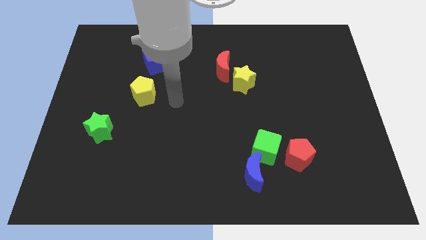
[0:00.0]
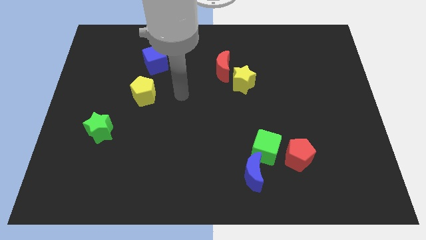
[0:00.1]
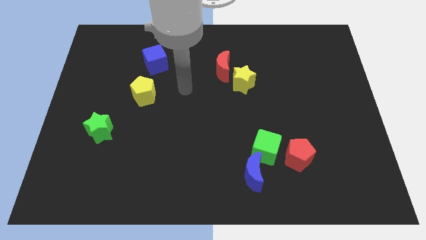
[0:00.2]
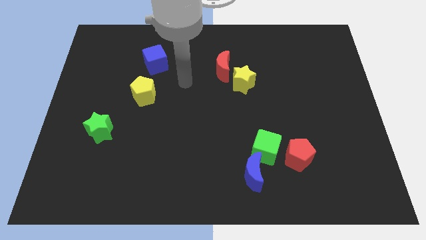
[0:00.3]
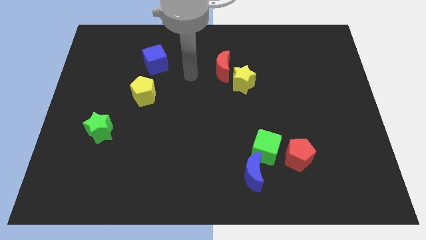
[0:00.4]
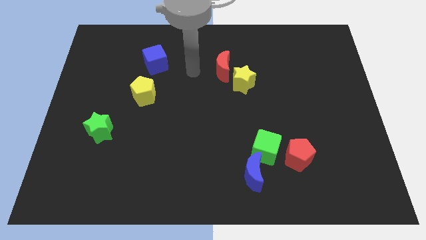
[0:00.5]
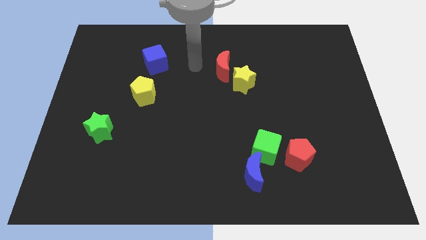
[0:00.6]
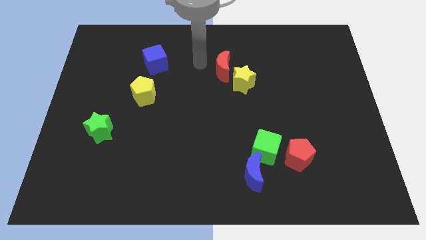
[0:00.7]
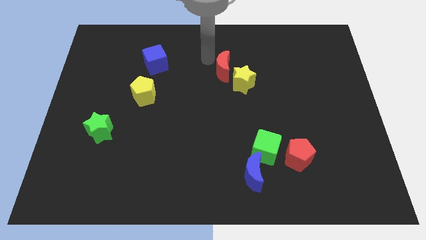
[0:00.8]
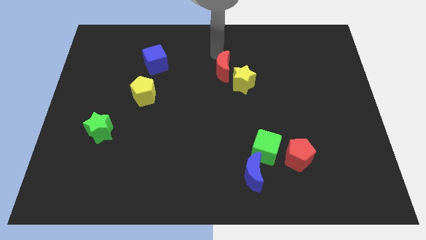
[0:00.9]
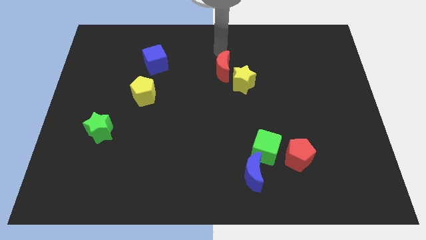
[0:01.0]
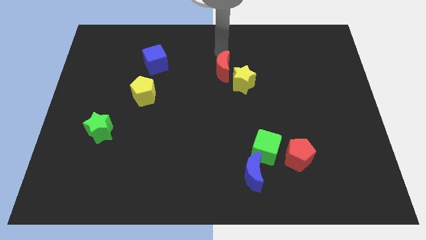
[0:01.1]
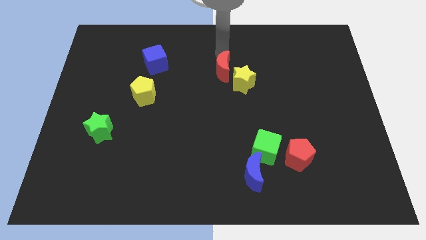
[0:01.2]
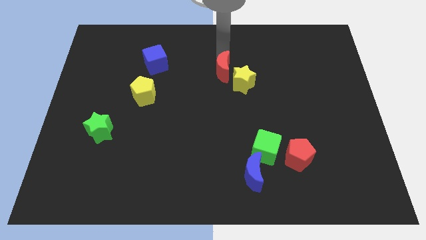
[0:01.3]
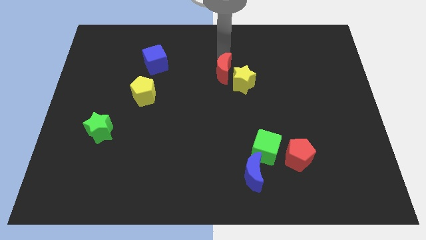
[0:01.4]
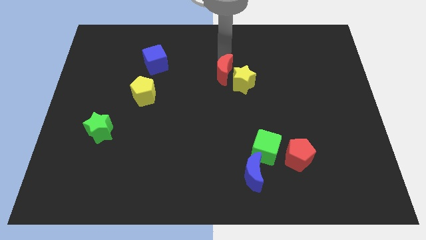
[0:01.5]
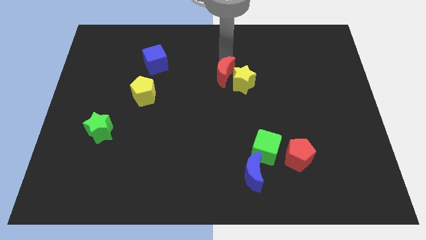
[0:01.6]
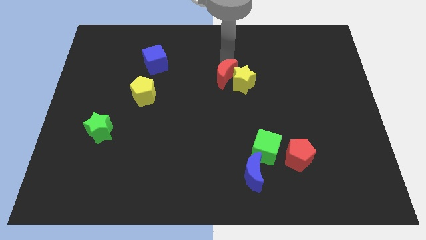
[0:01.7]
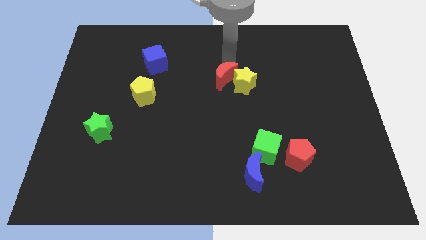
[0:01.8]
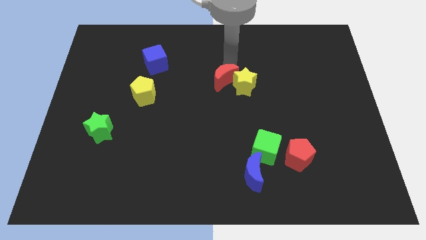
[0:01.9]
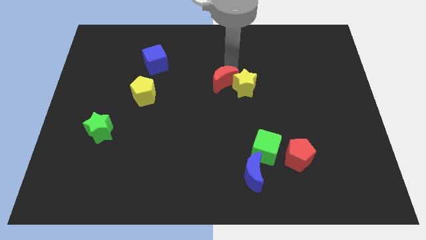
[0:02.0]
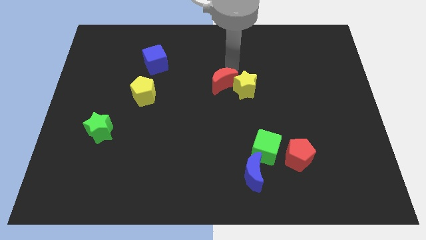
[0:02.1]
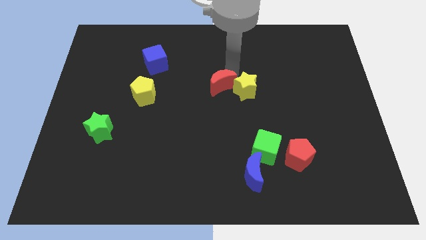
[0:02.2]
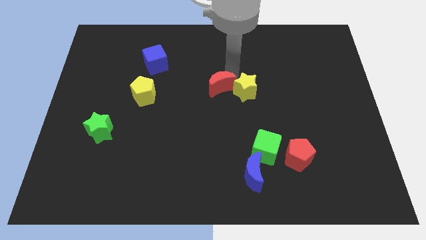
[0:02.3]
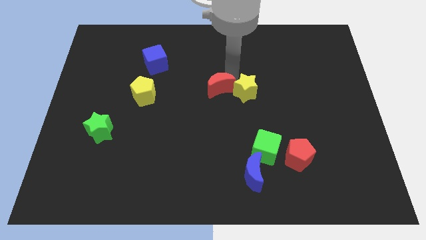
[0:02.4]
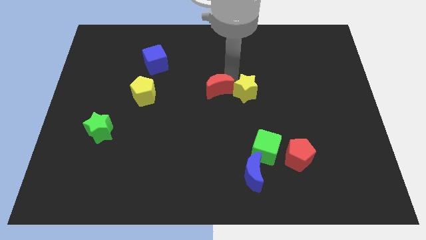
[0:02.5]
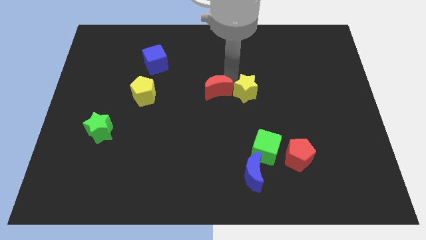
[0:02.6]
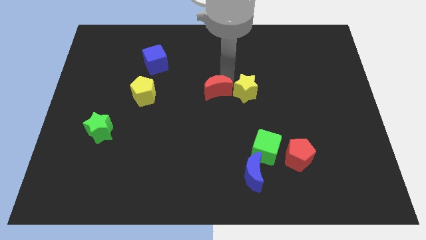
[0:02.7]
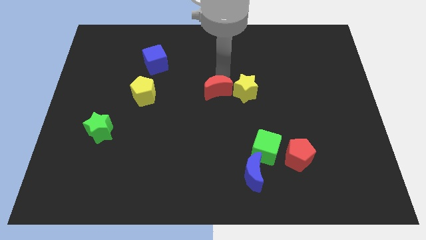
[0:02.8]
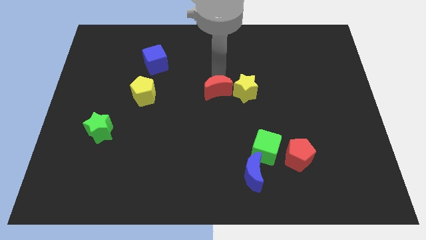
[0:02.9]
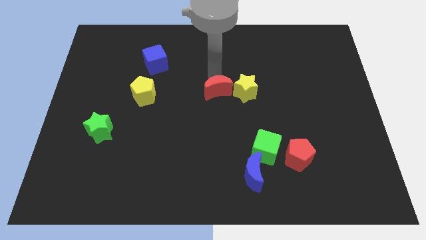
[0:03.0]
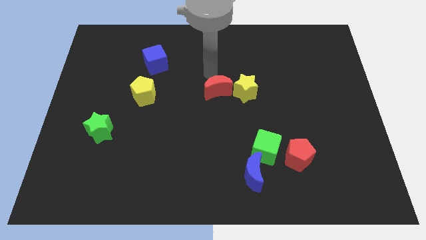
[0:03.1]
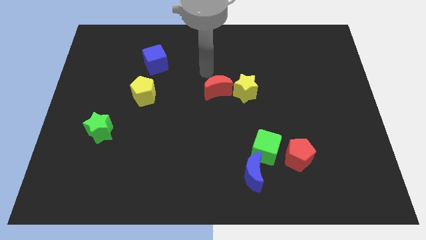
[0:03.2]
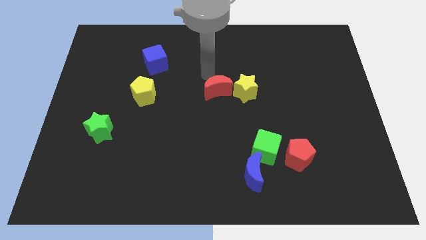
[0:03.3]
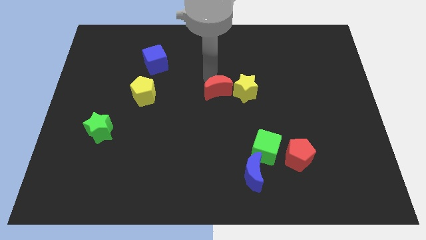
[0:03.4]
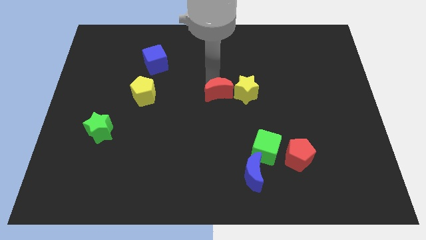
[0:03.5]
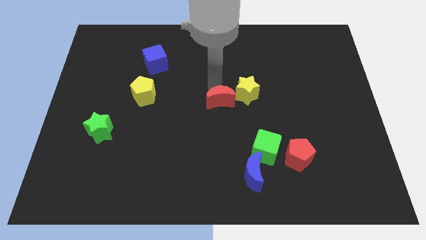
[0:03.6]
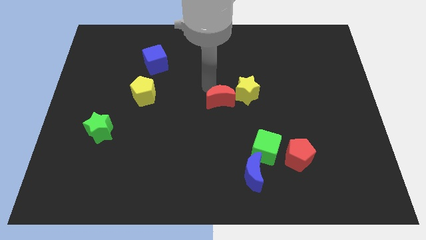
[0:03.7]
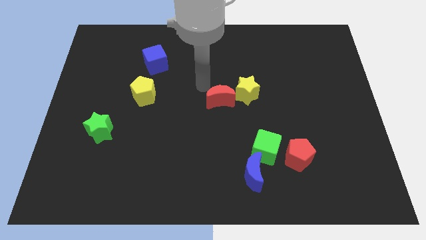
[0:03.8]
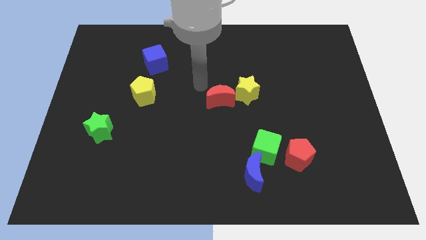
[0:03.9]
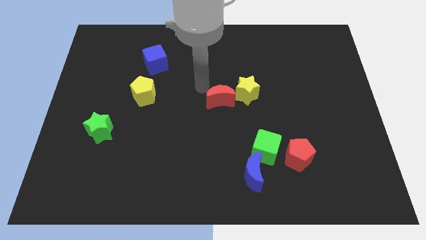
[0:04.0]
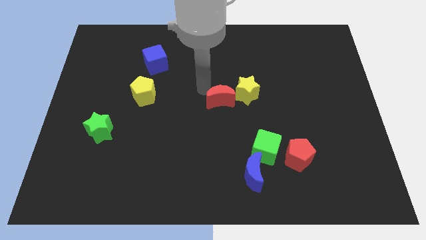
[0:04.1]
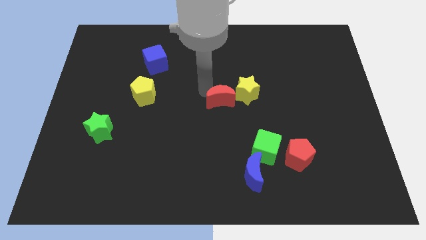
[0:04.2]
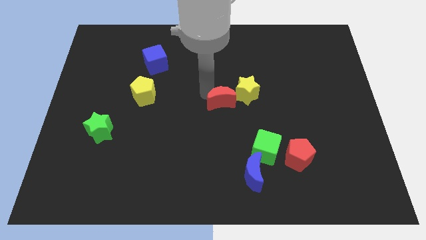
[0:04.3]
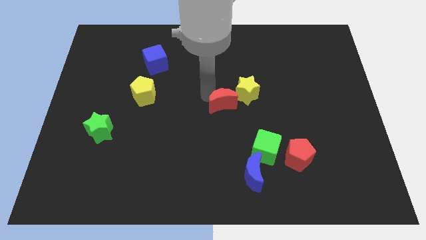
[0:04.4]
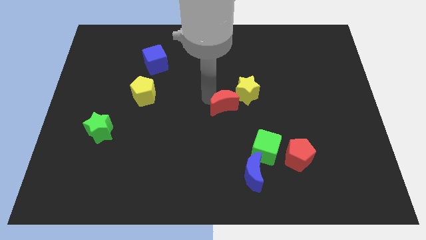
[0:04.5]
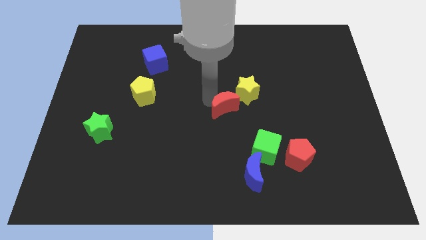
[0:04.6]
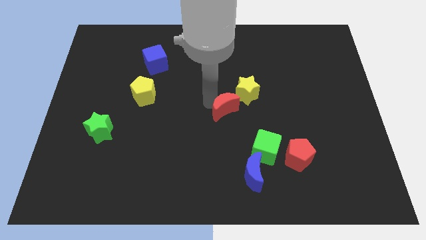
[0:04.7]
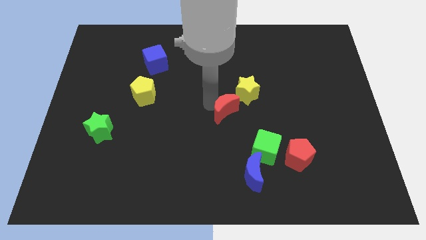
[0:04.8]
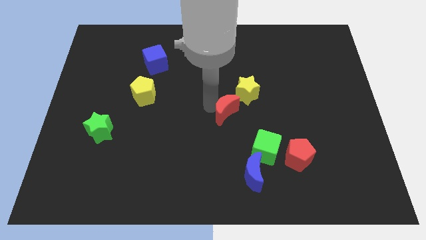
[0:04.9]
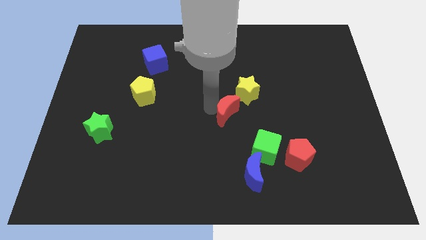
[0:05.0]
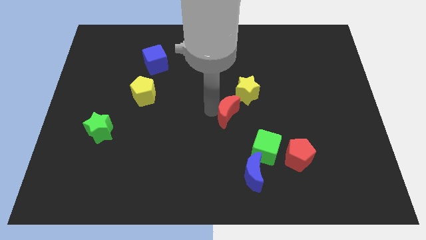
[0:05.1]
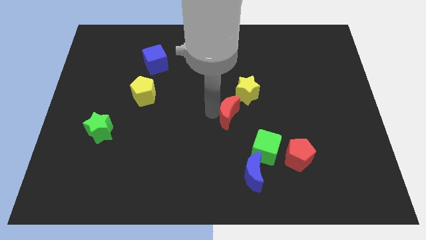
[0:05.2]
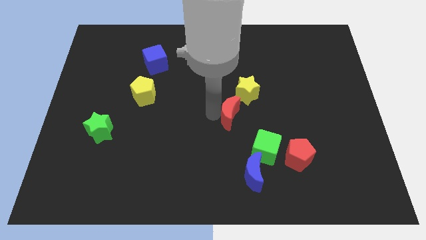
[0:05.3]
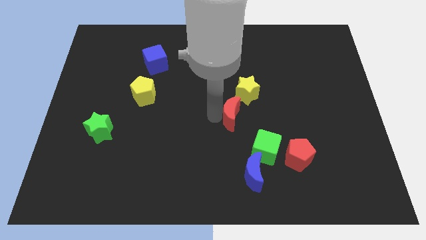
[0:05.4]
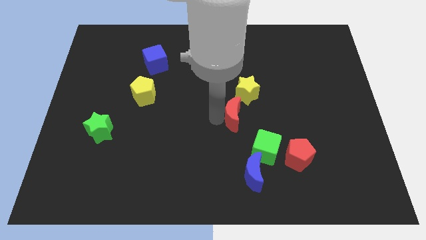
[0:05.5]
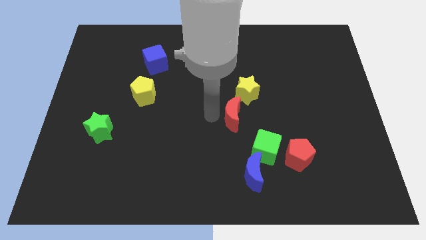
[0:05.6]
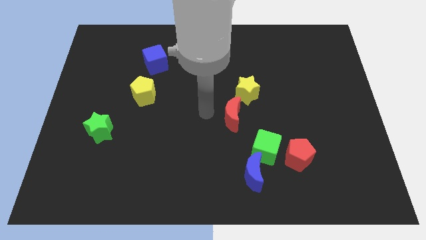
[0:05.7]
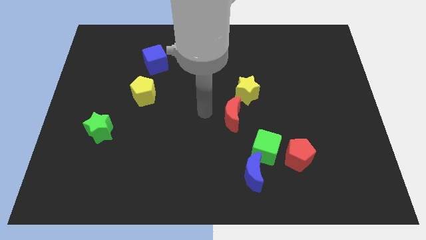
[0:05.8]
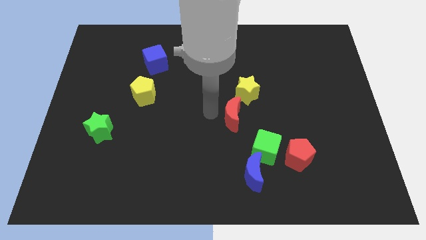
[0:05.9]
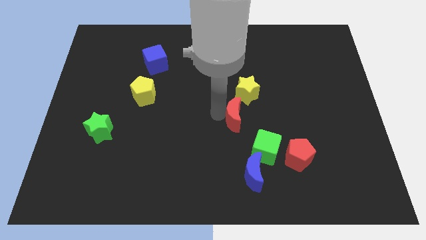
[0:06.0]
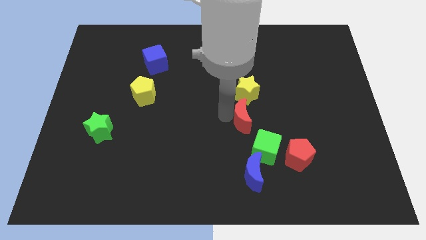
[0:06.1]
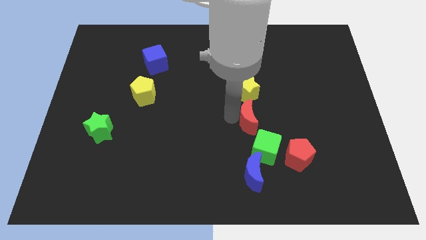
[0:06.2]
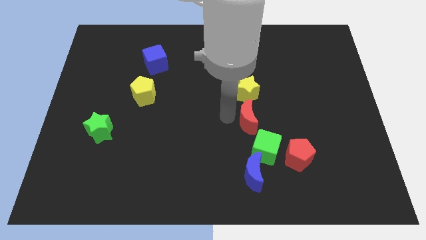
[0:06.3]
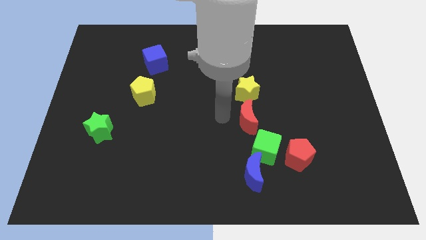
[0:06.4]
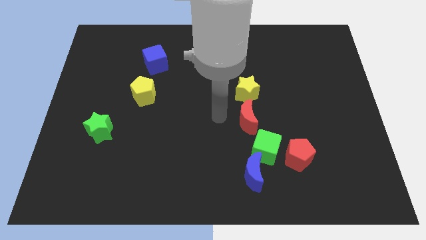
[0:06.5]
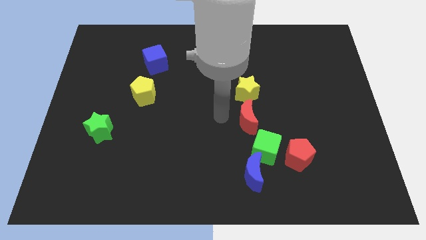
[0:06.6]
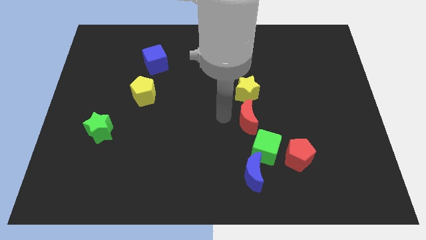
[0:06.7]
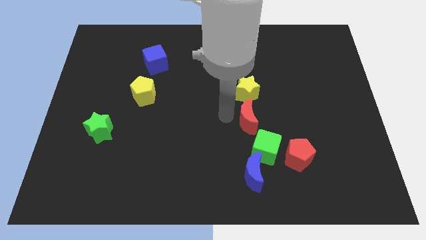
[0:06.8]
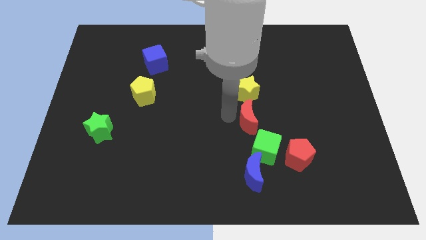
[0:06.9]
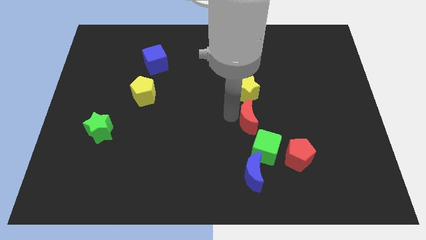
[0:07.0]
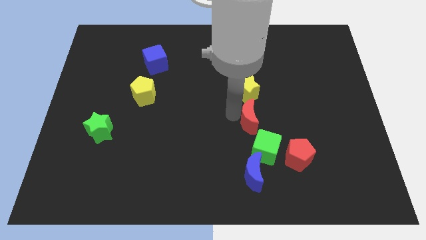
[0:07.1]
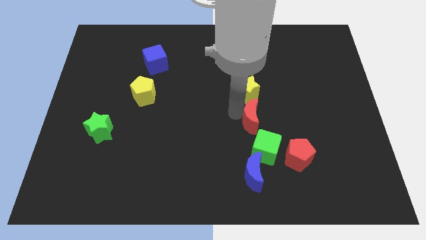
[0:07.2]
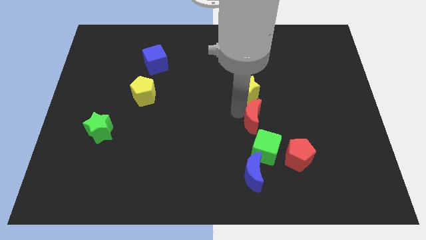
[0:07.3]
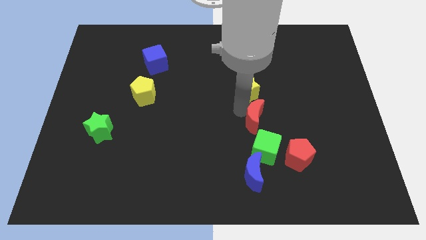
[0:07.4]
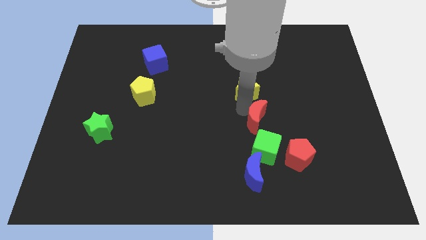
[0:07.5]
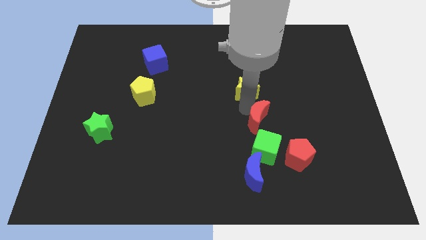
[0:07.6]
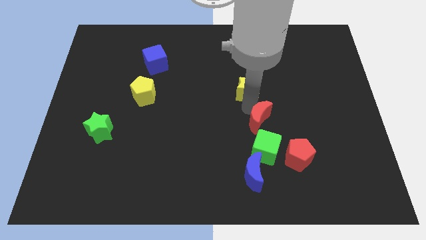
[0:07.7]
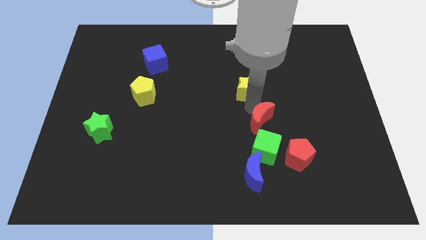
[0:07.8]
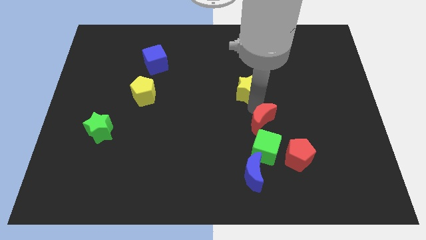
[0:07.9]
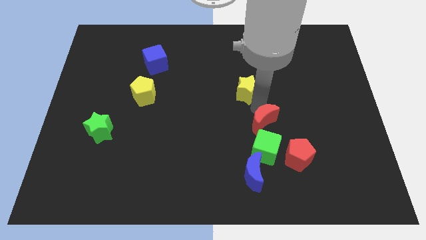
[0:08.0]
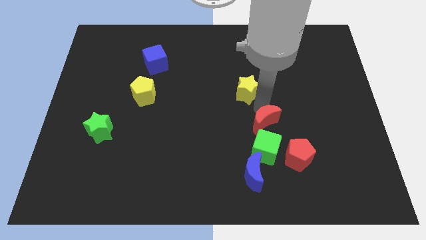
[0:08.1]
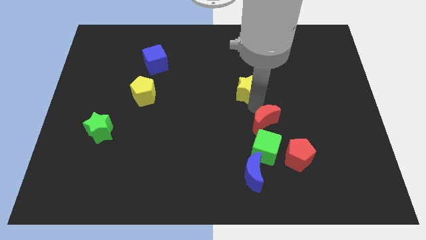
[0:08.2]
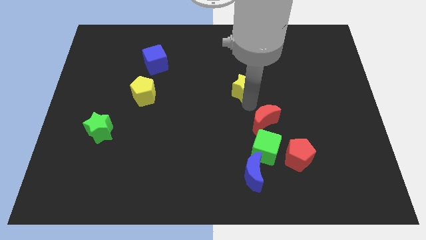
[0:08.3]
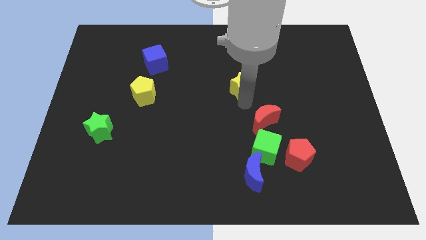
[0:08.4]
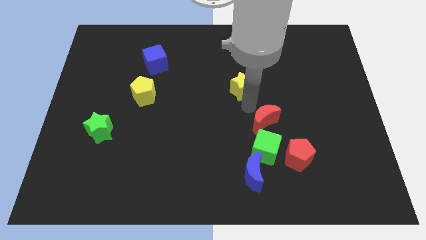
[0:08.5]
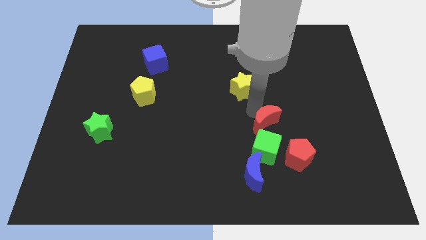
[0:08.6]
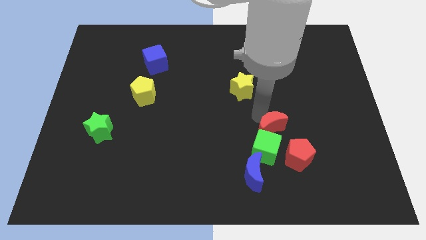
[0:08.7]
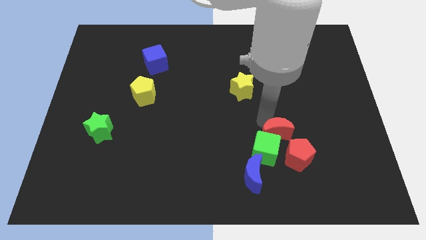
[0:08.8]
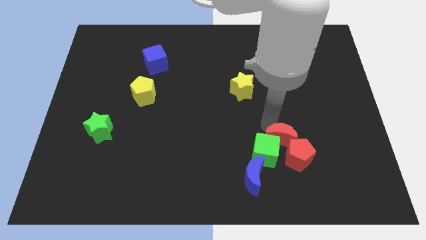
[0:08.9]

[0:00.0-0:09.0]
put the red moon towards the red pentagon
